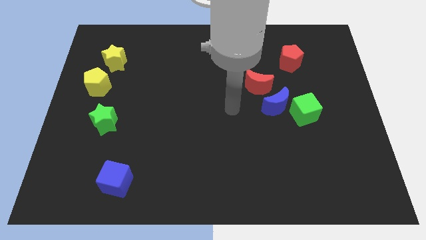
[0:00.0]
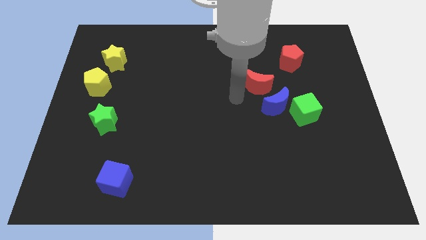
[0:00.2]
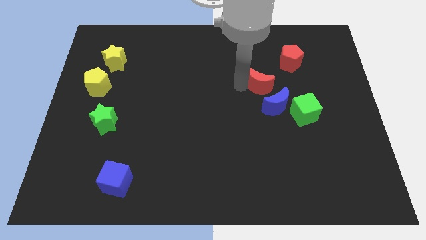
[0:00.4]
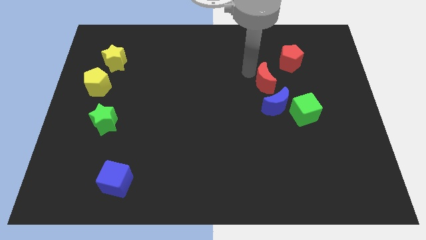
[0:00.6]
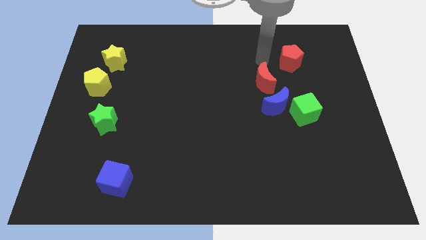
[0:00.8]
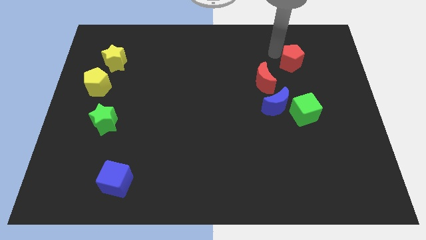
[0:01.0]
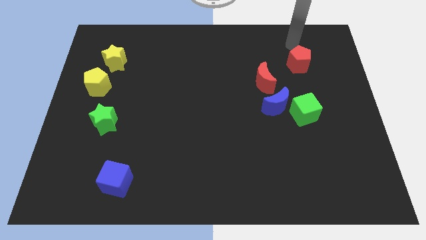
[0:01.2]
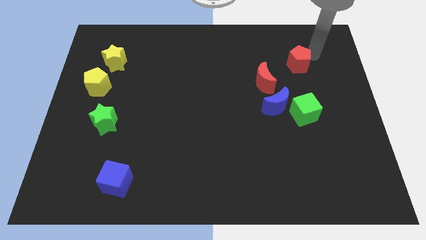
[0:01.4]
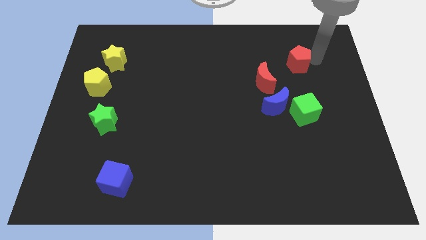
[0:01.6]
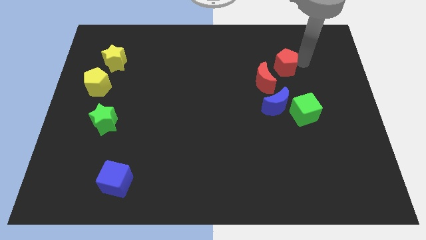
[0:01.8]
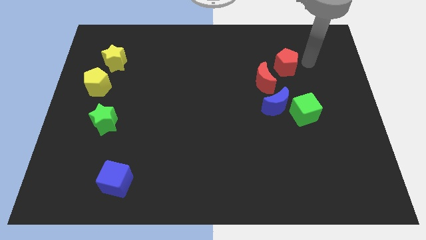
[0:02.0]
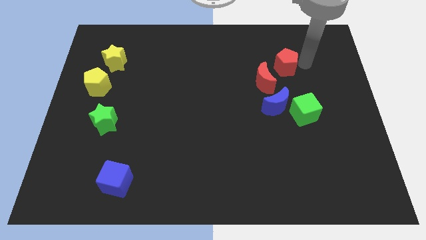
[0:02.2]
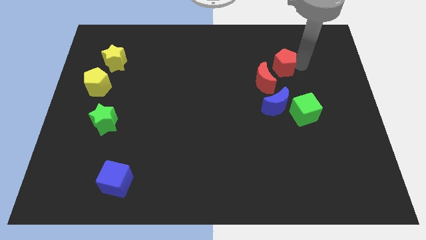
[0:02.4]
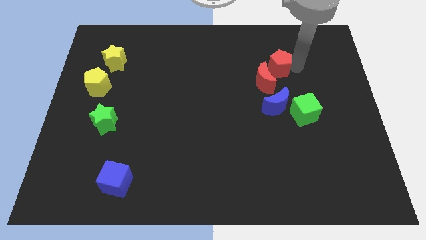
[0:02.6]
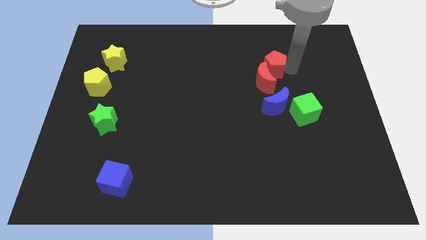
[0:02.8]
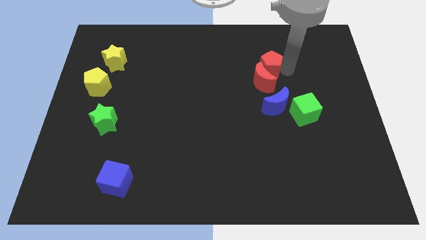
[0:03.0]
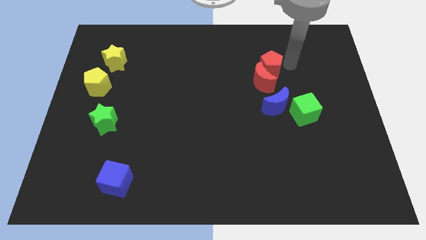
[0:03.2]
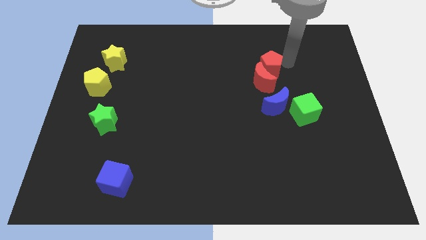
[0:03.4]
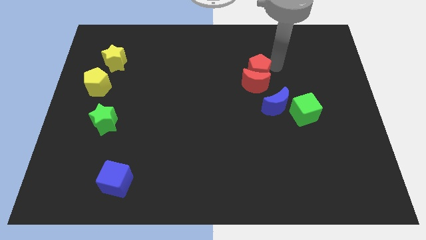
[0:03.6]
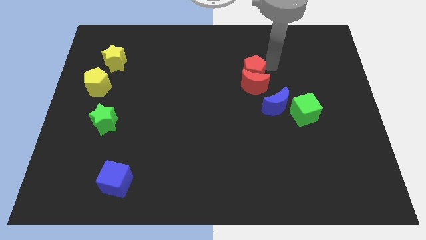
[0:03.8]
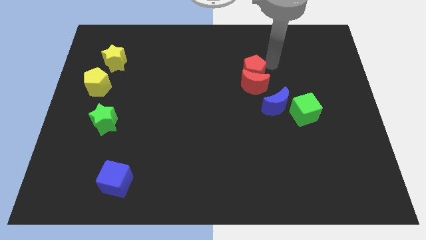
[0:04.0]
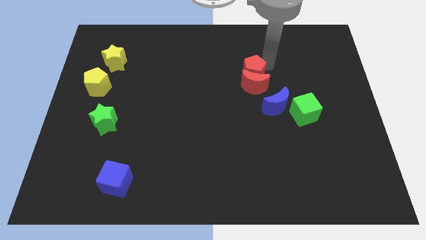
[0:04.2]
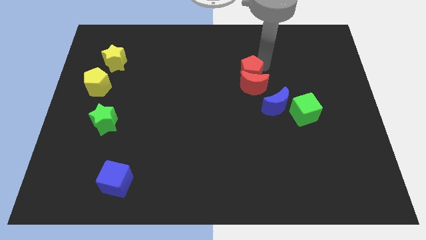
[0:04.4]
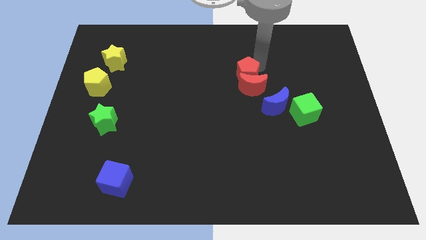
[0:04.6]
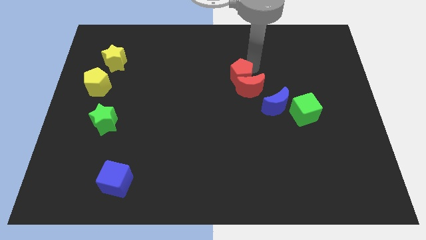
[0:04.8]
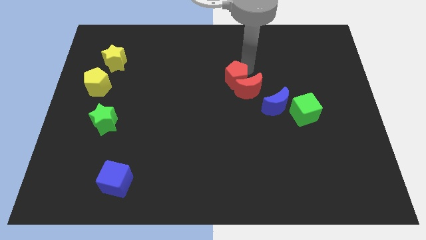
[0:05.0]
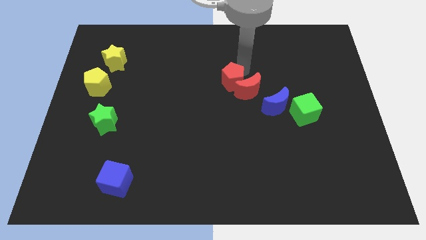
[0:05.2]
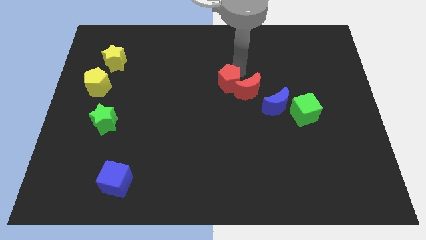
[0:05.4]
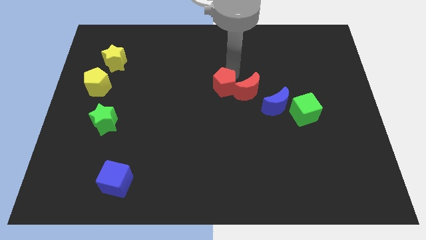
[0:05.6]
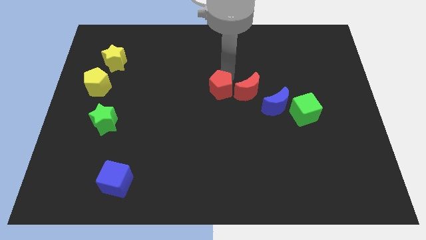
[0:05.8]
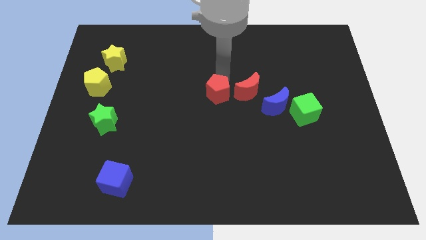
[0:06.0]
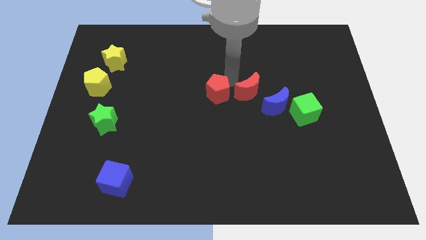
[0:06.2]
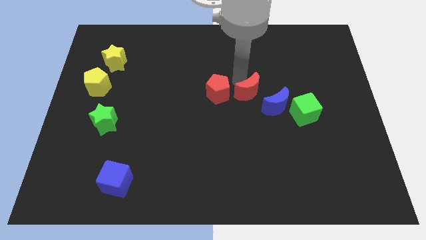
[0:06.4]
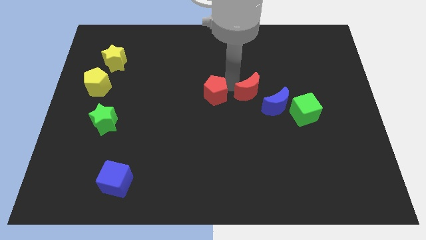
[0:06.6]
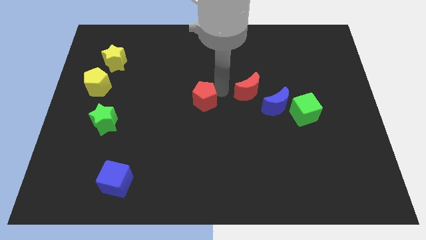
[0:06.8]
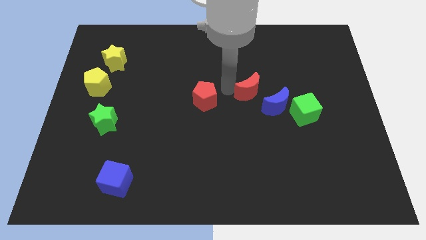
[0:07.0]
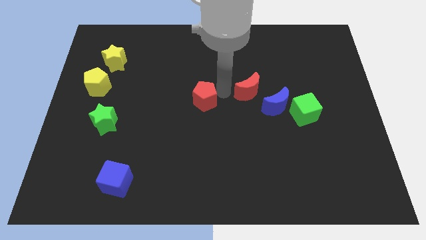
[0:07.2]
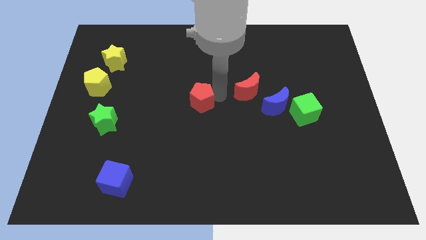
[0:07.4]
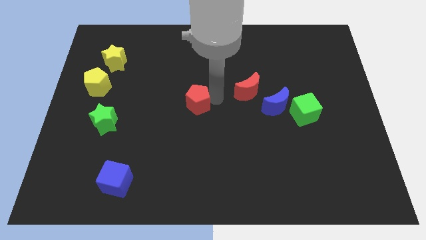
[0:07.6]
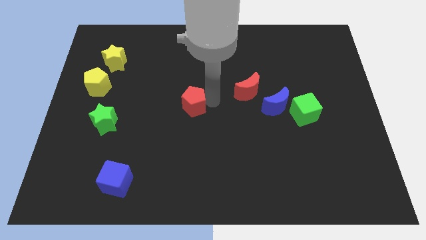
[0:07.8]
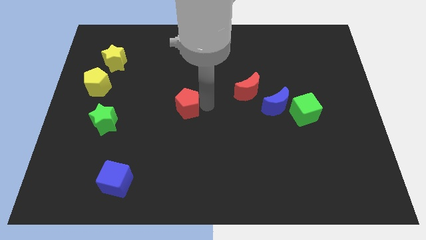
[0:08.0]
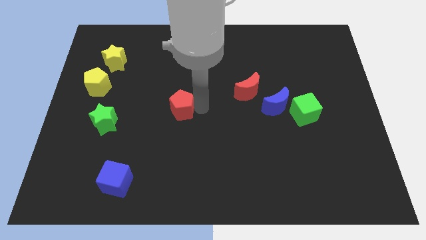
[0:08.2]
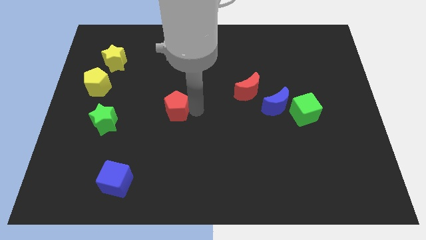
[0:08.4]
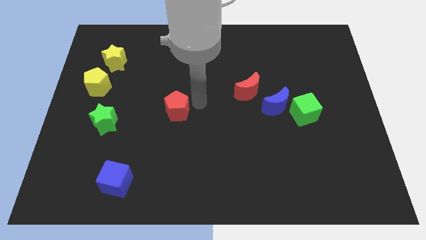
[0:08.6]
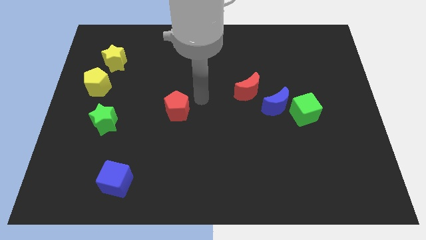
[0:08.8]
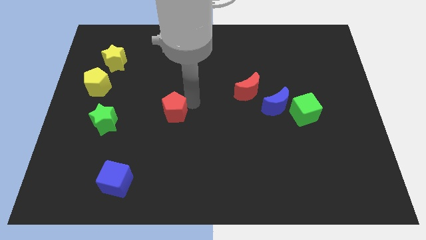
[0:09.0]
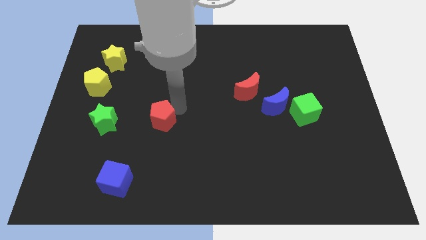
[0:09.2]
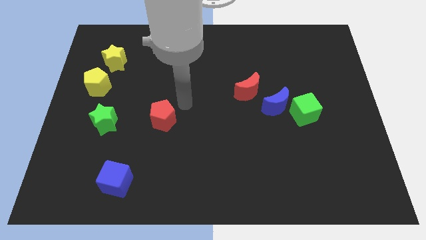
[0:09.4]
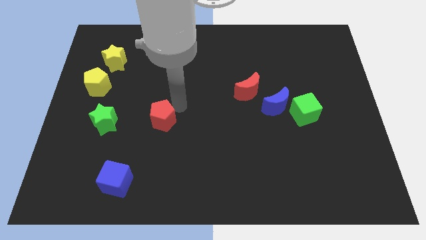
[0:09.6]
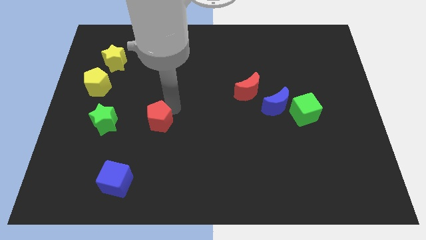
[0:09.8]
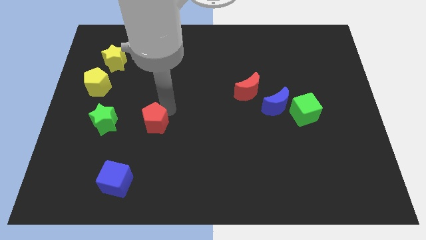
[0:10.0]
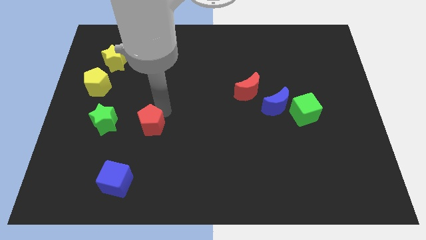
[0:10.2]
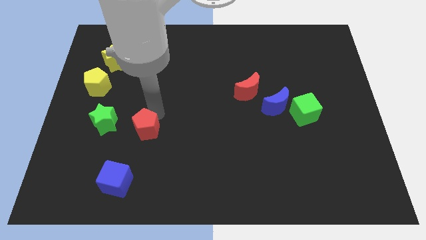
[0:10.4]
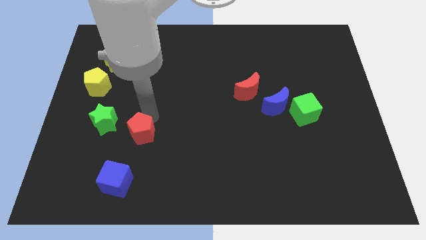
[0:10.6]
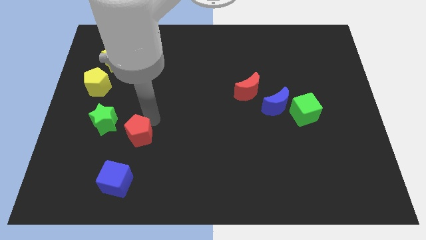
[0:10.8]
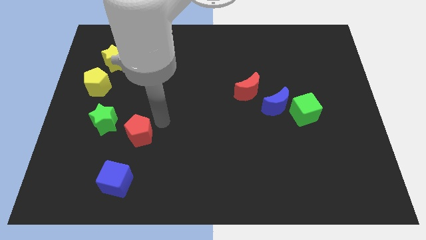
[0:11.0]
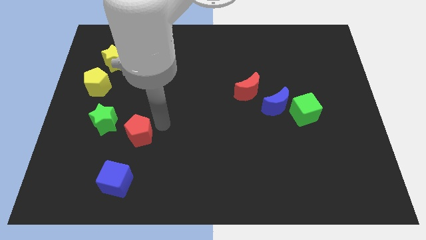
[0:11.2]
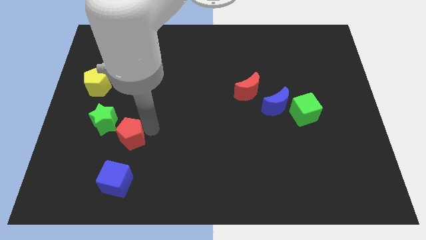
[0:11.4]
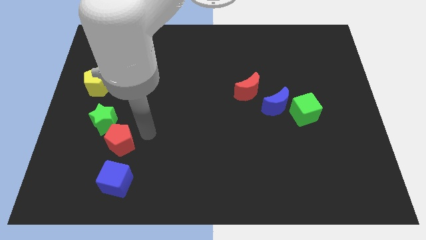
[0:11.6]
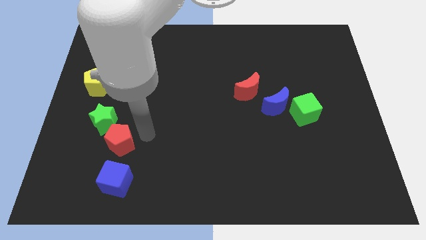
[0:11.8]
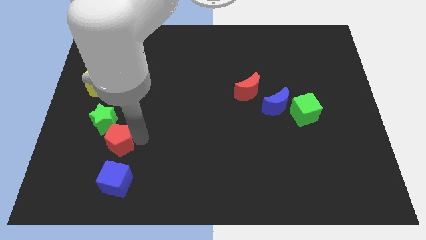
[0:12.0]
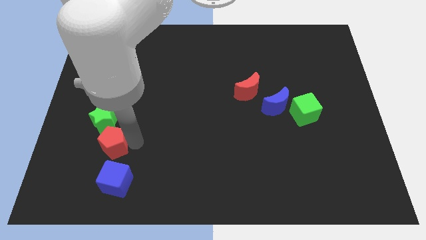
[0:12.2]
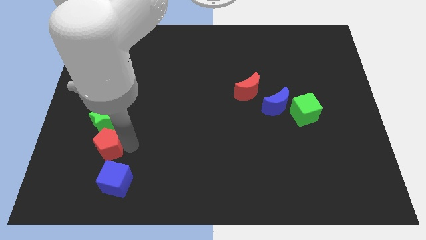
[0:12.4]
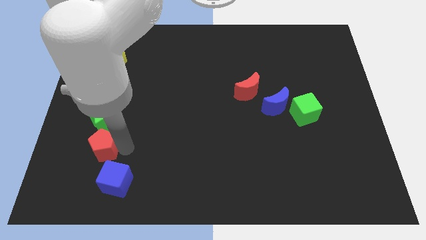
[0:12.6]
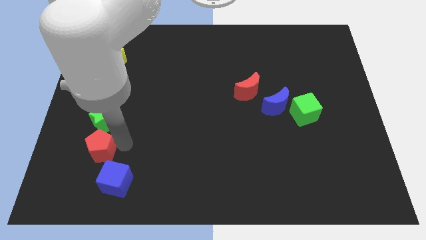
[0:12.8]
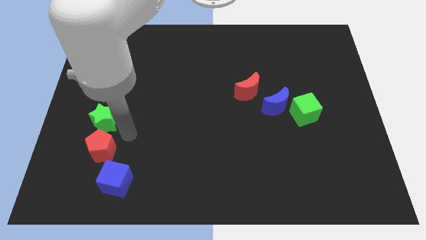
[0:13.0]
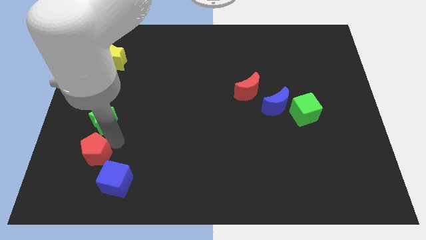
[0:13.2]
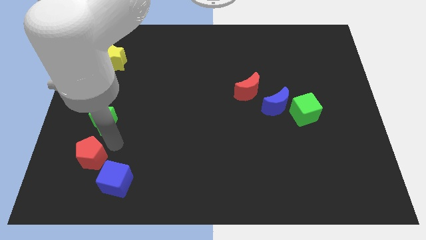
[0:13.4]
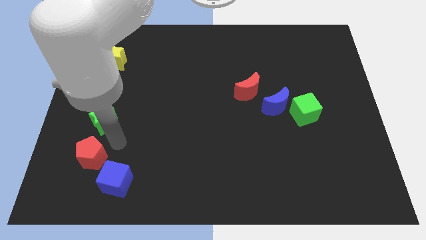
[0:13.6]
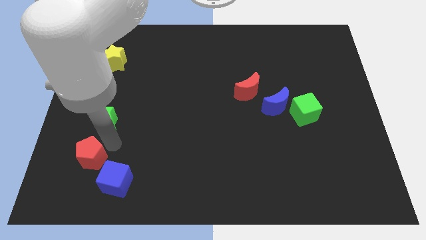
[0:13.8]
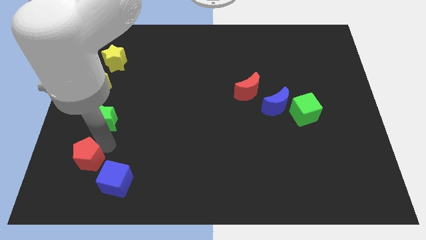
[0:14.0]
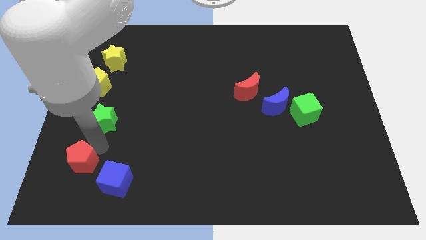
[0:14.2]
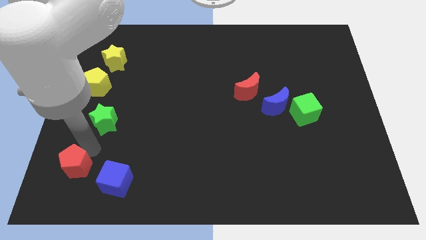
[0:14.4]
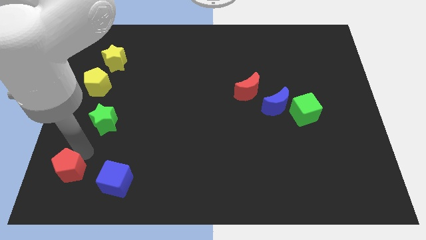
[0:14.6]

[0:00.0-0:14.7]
put the red pentagon to the bottom left
